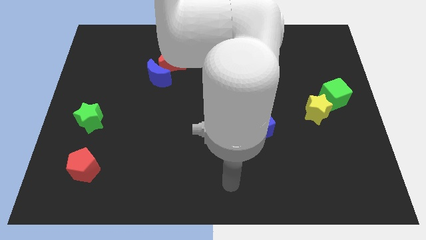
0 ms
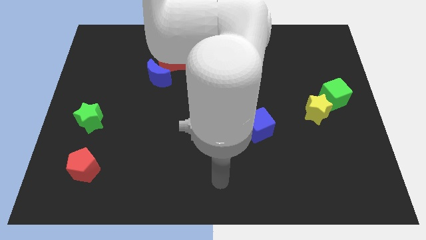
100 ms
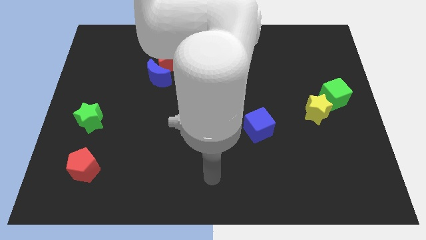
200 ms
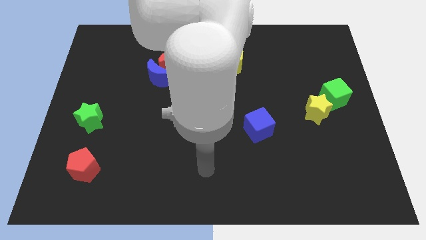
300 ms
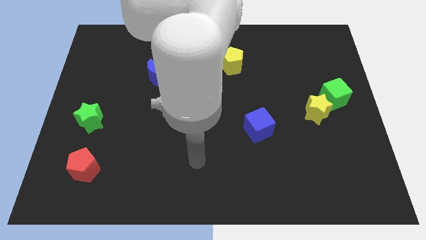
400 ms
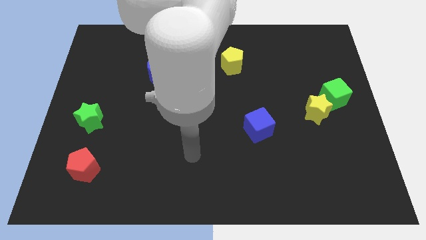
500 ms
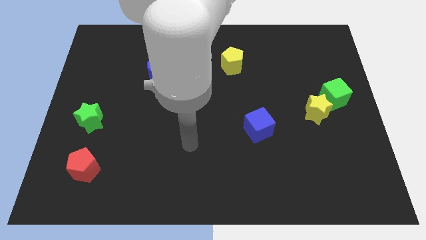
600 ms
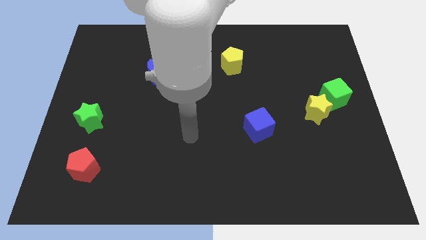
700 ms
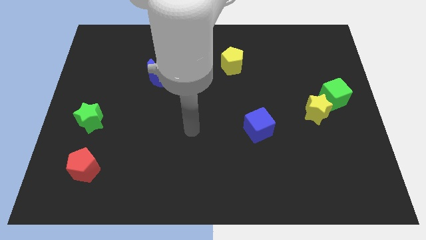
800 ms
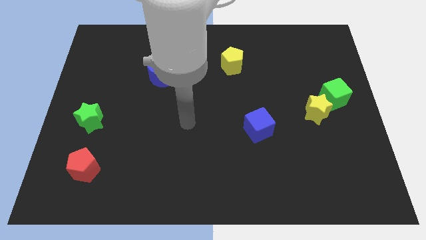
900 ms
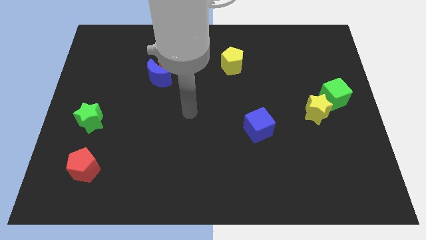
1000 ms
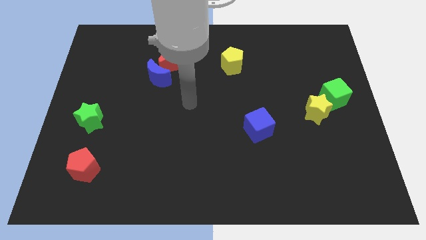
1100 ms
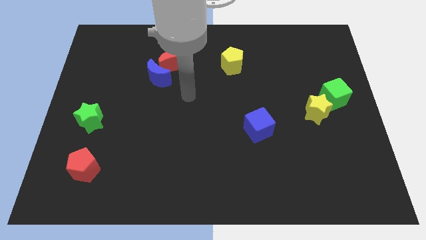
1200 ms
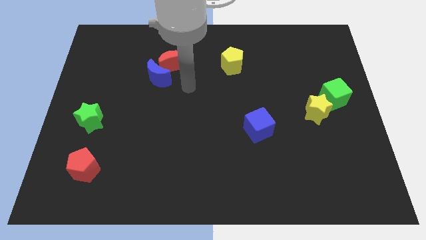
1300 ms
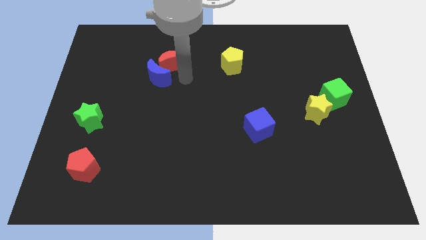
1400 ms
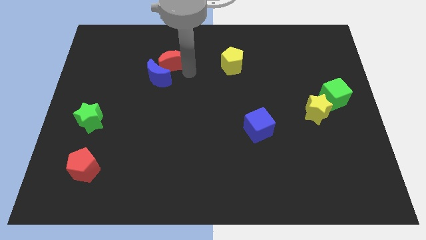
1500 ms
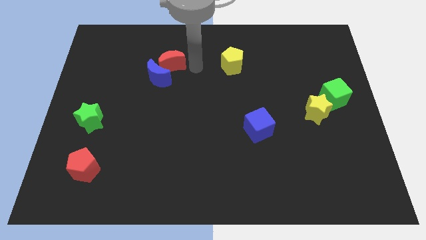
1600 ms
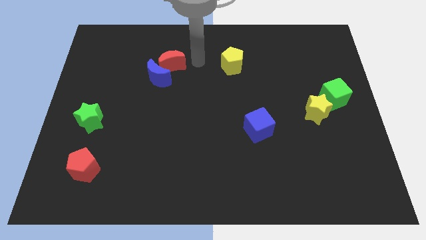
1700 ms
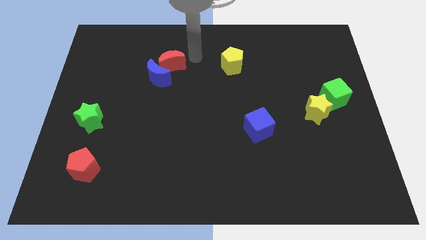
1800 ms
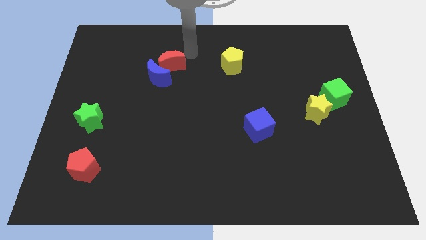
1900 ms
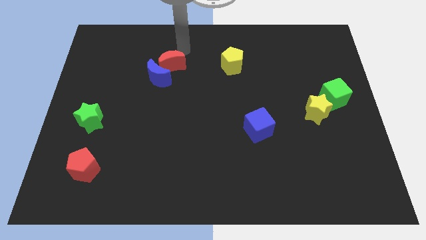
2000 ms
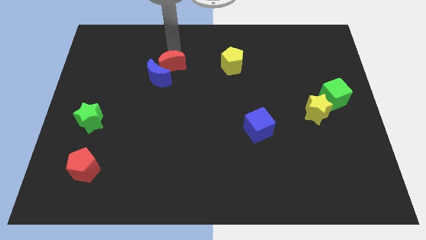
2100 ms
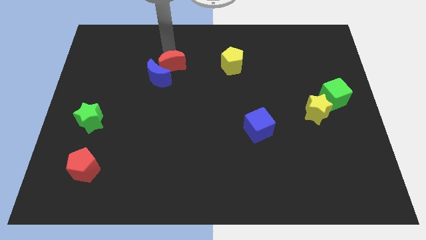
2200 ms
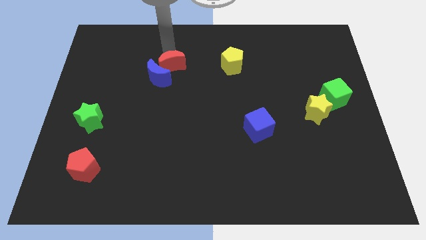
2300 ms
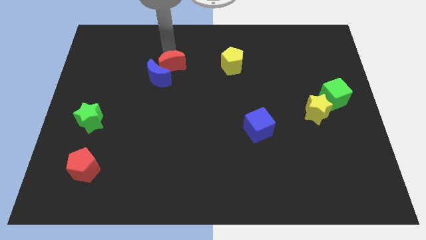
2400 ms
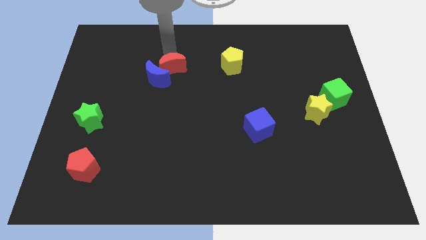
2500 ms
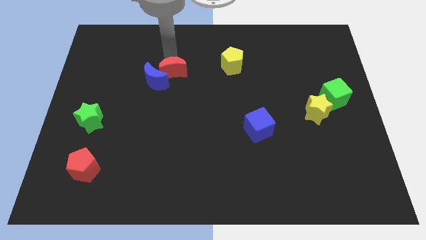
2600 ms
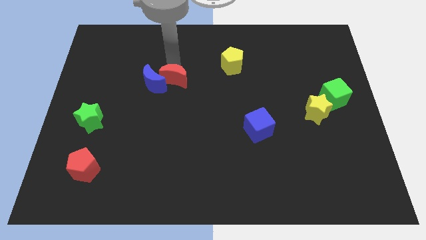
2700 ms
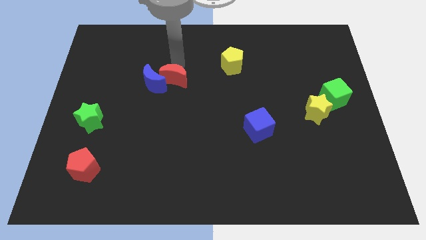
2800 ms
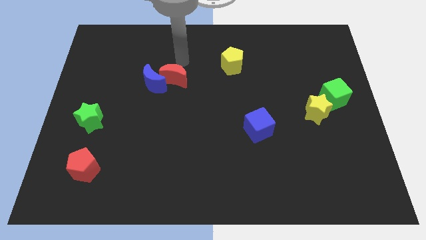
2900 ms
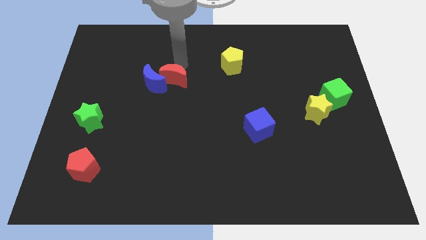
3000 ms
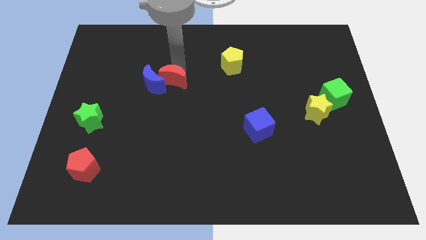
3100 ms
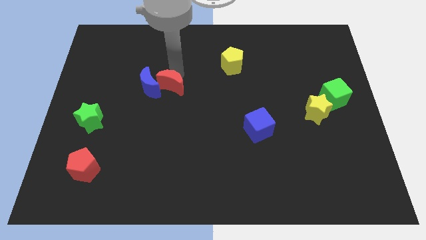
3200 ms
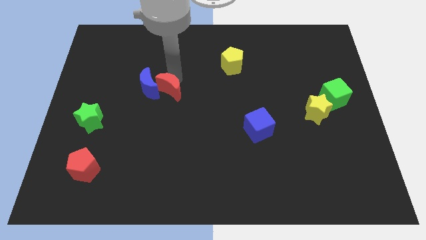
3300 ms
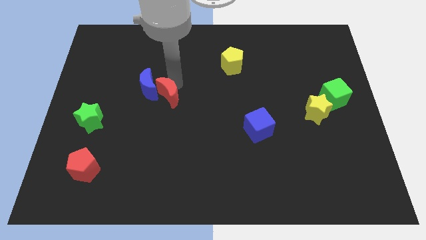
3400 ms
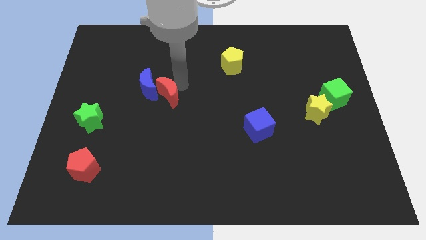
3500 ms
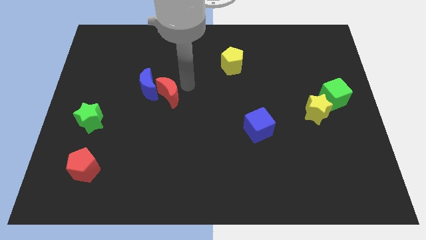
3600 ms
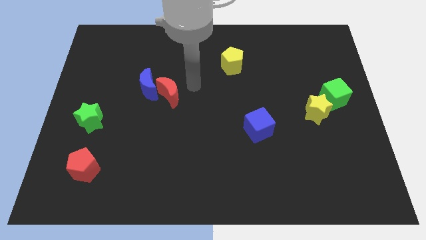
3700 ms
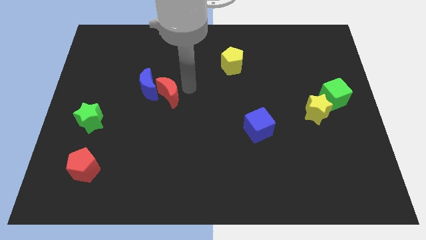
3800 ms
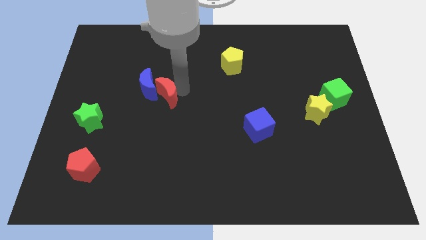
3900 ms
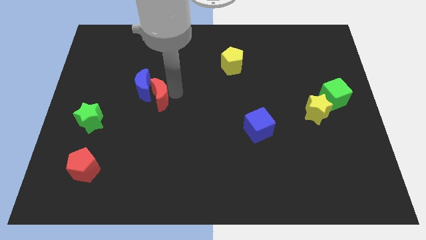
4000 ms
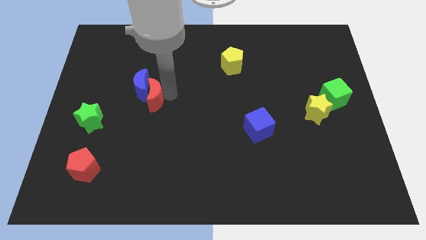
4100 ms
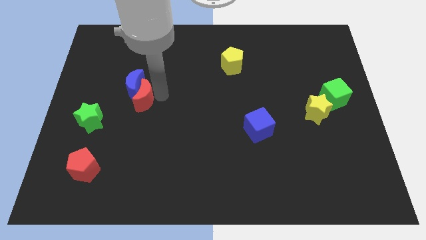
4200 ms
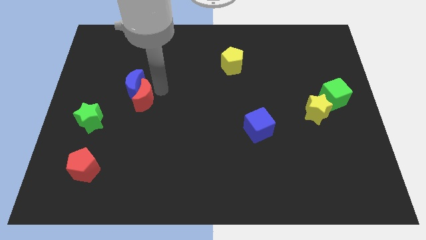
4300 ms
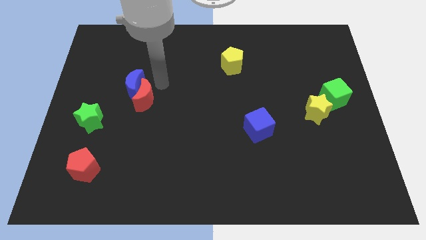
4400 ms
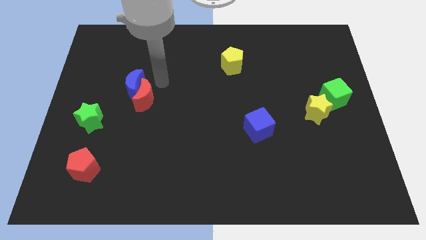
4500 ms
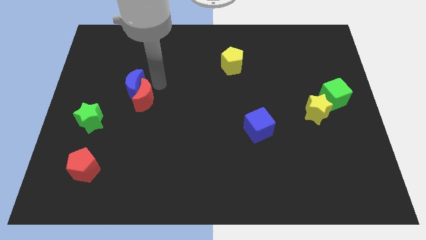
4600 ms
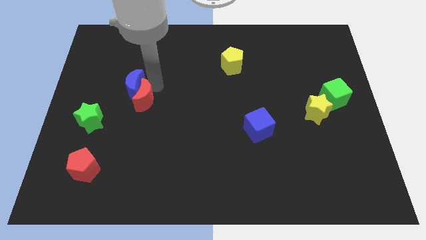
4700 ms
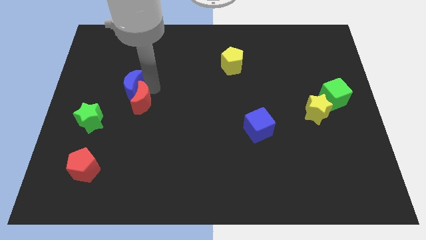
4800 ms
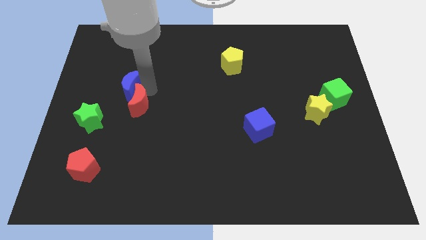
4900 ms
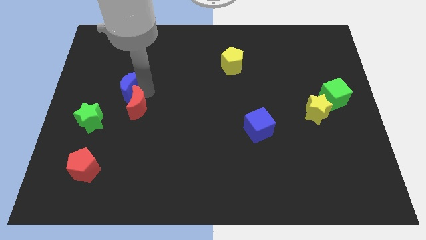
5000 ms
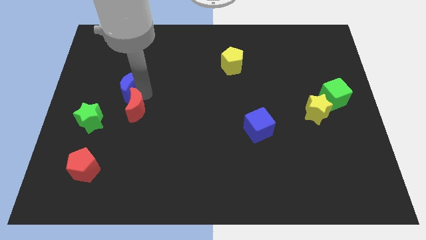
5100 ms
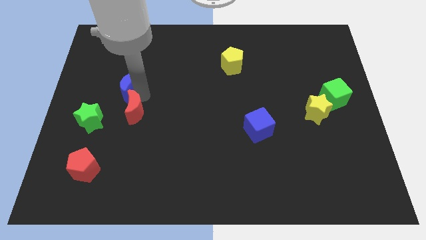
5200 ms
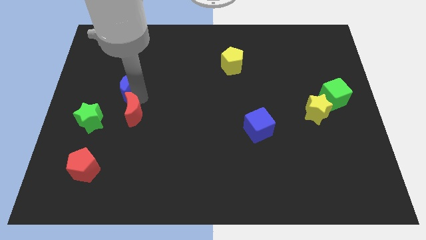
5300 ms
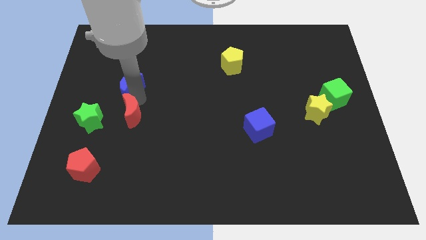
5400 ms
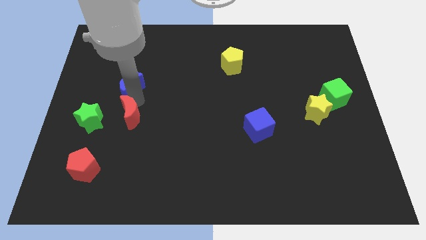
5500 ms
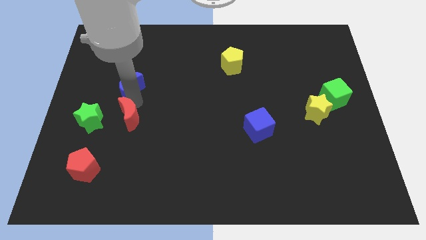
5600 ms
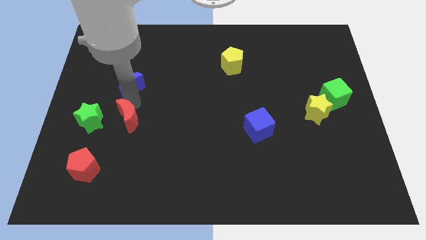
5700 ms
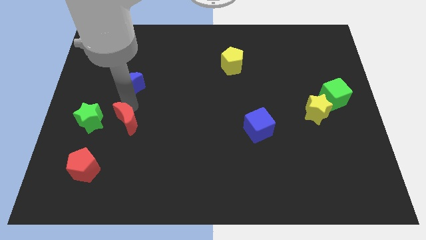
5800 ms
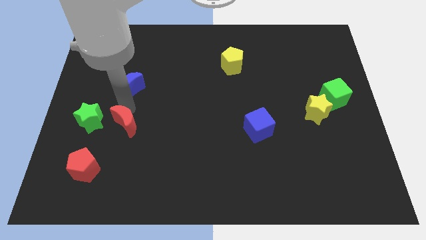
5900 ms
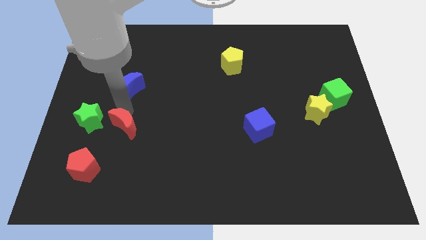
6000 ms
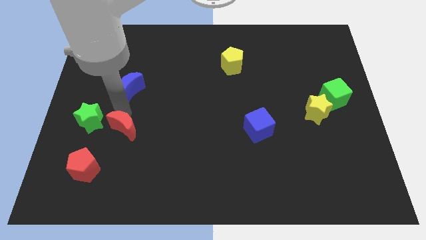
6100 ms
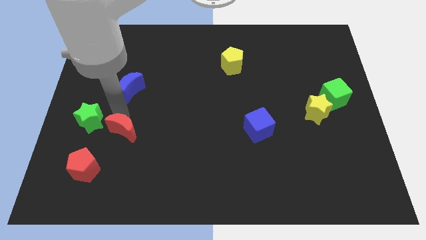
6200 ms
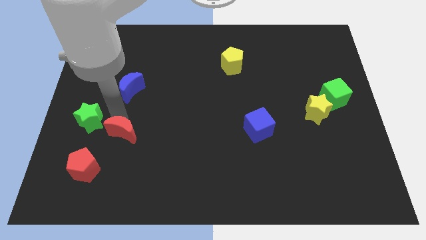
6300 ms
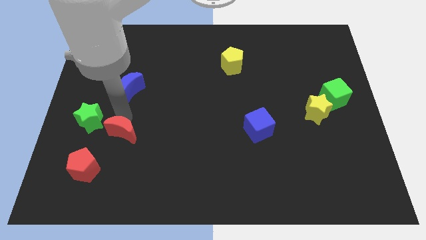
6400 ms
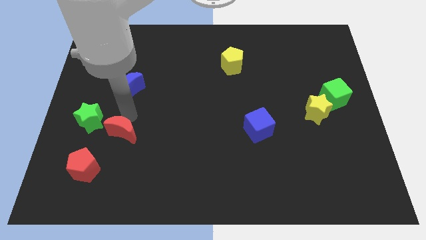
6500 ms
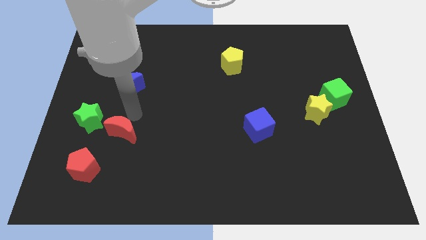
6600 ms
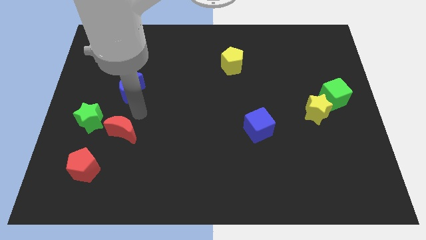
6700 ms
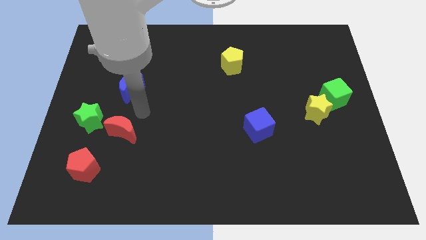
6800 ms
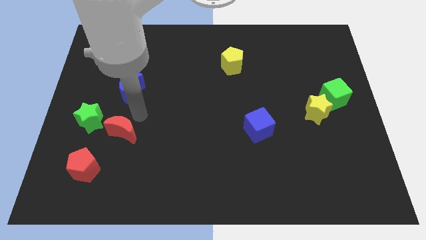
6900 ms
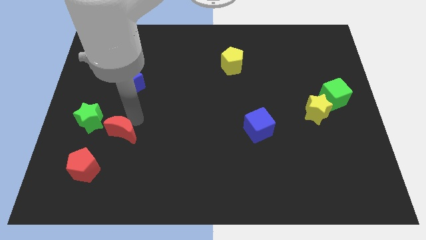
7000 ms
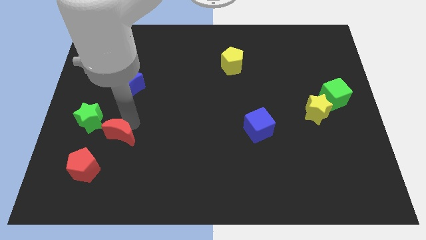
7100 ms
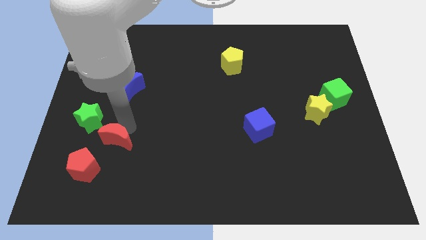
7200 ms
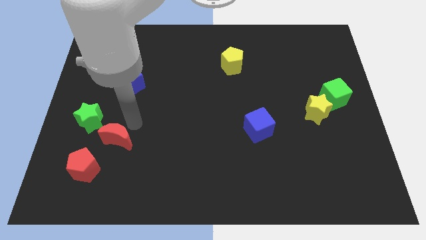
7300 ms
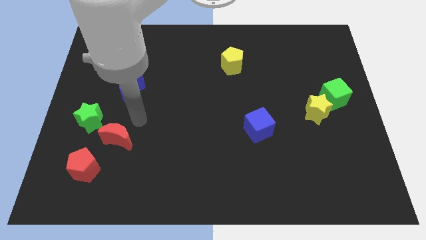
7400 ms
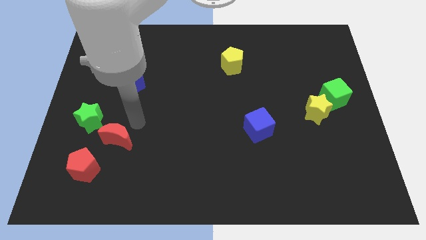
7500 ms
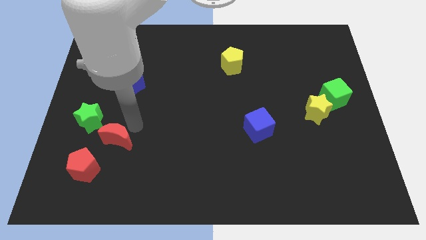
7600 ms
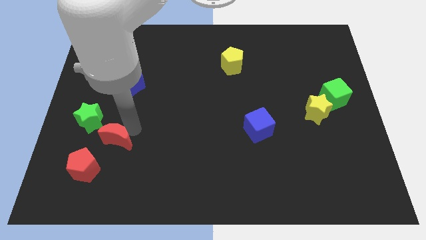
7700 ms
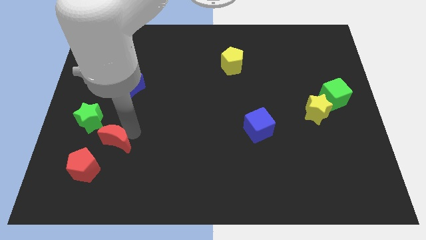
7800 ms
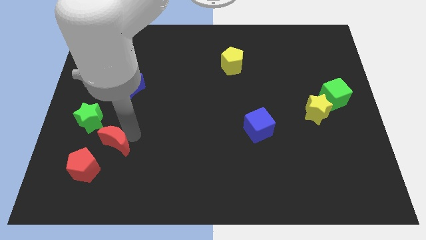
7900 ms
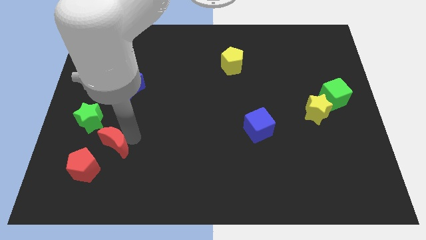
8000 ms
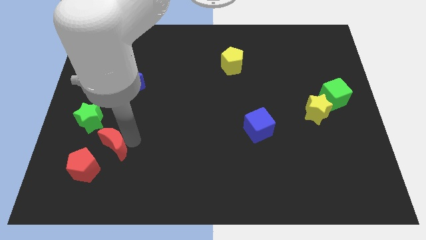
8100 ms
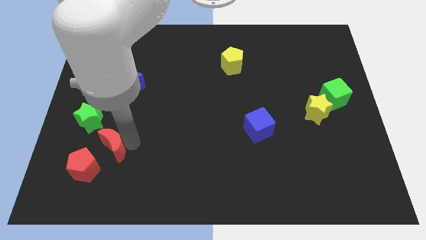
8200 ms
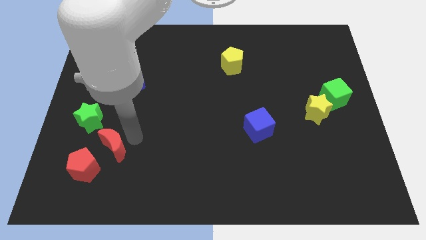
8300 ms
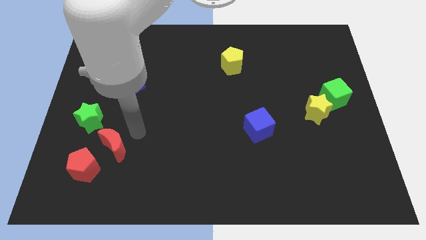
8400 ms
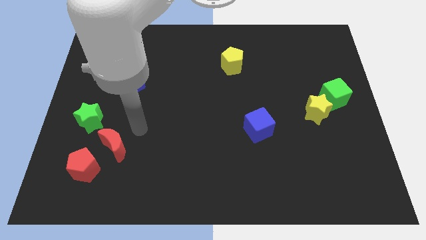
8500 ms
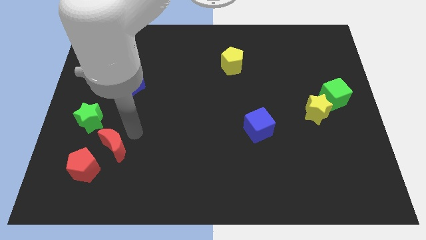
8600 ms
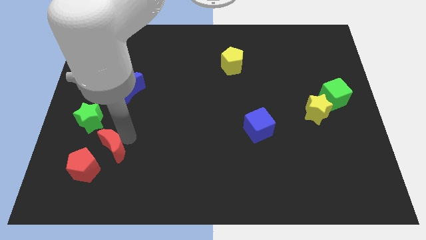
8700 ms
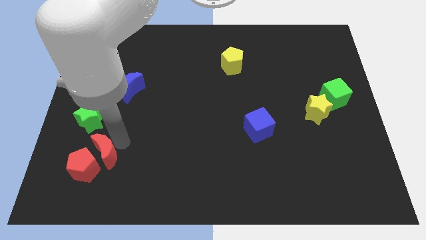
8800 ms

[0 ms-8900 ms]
put the red moon towards the red pentagon
